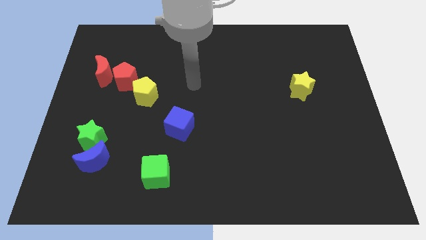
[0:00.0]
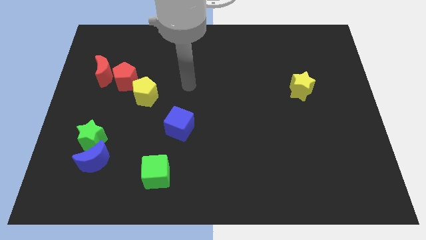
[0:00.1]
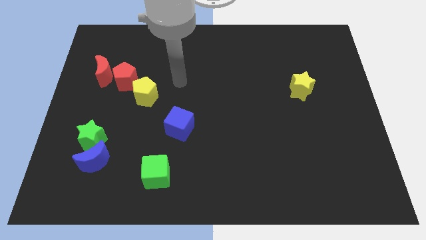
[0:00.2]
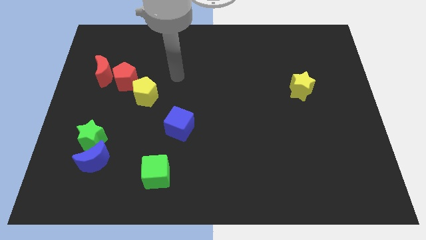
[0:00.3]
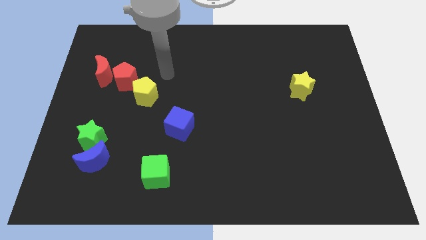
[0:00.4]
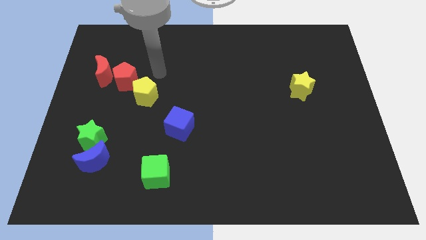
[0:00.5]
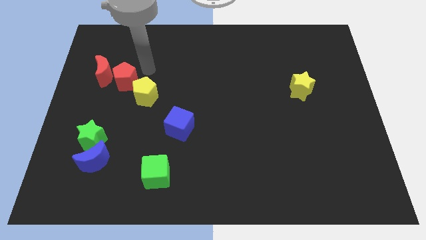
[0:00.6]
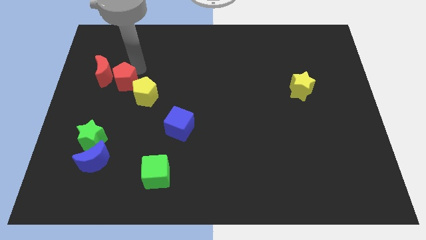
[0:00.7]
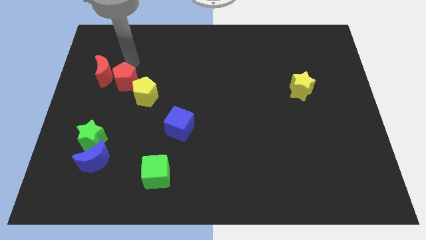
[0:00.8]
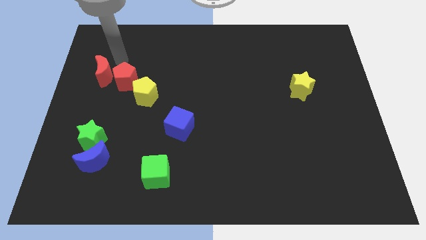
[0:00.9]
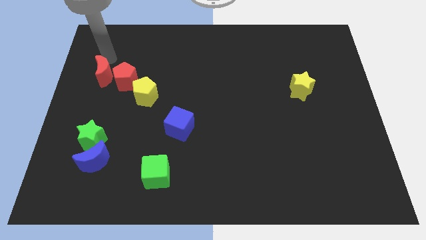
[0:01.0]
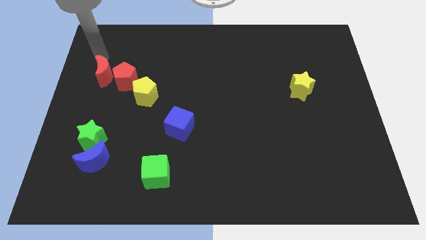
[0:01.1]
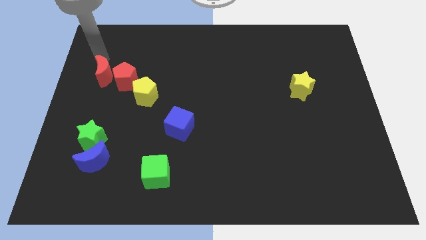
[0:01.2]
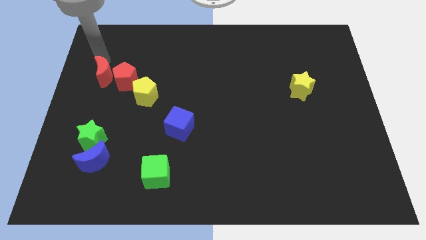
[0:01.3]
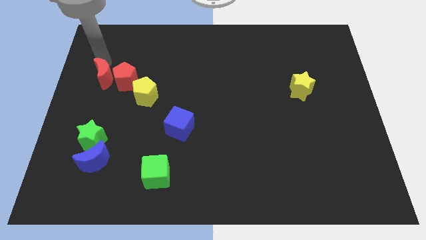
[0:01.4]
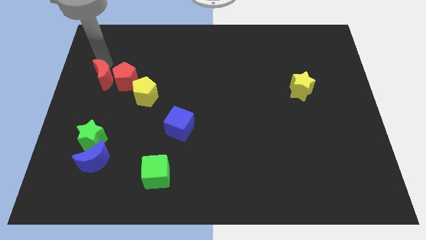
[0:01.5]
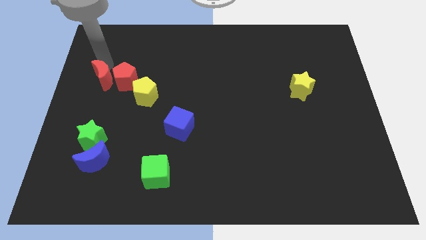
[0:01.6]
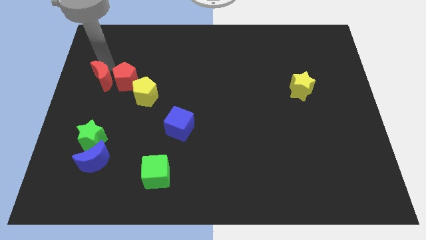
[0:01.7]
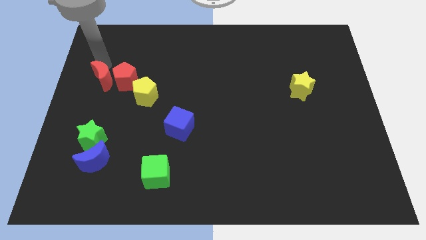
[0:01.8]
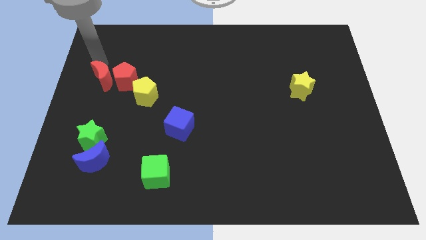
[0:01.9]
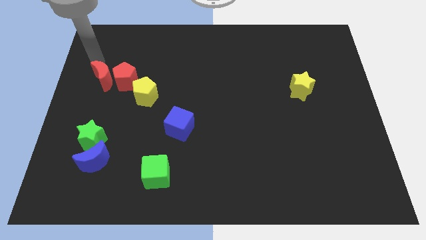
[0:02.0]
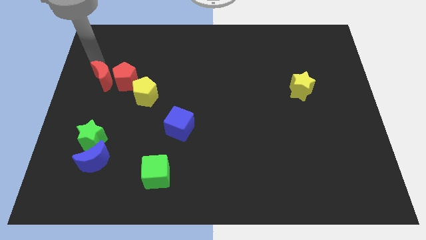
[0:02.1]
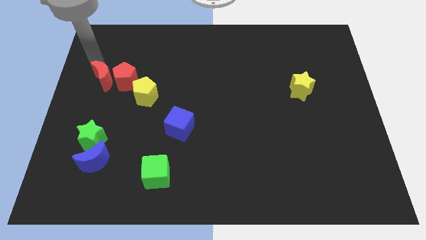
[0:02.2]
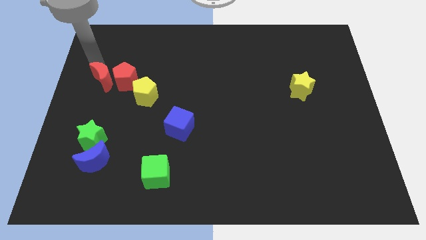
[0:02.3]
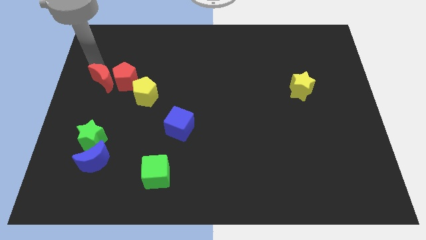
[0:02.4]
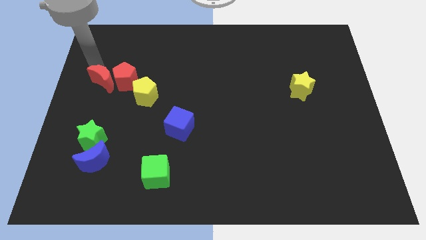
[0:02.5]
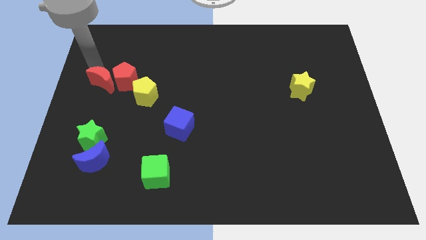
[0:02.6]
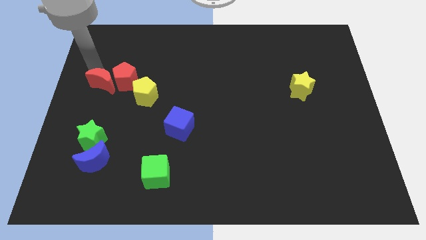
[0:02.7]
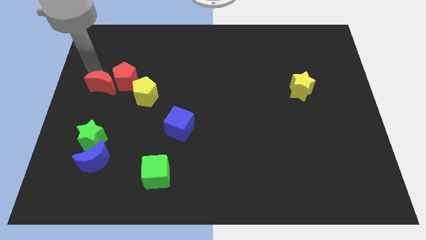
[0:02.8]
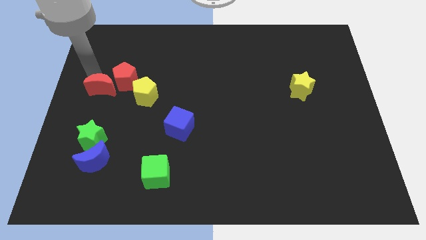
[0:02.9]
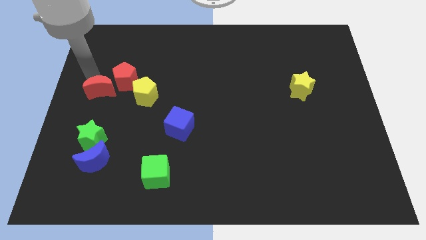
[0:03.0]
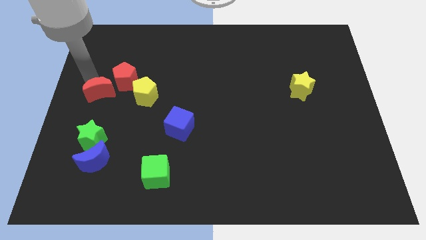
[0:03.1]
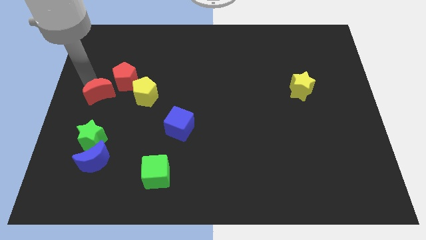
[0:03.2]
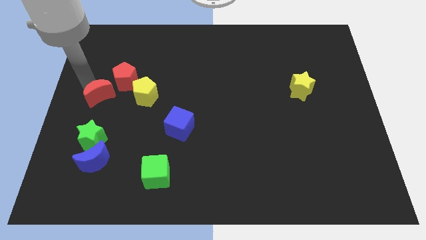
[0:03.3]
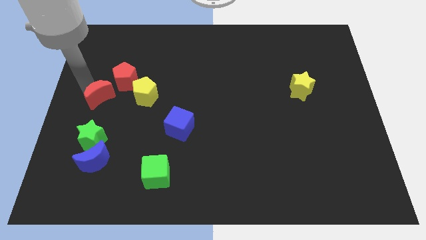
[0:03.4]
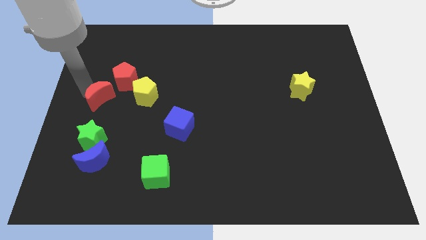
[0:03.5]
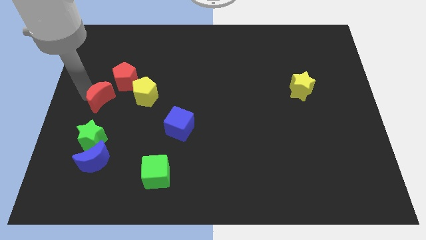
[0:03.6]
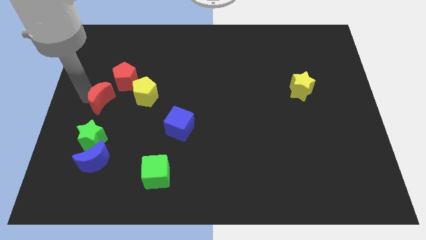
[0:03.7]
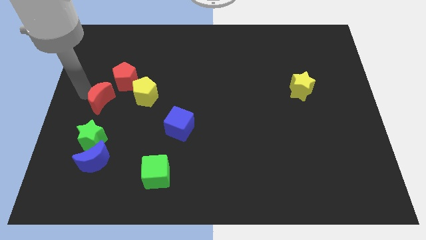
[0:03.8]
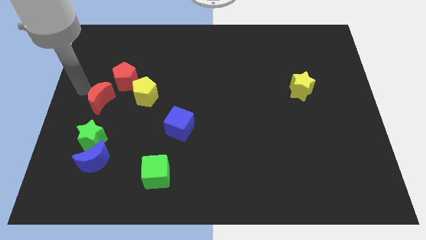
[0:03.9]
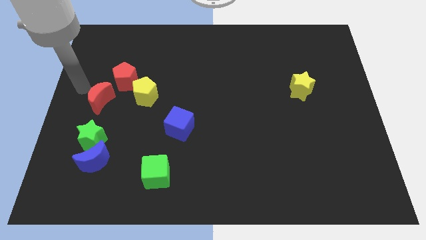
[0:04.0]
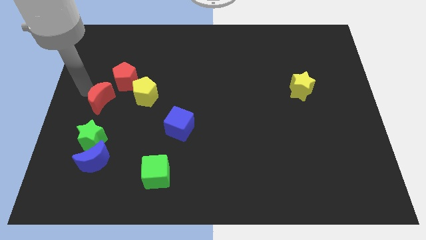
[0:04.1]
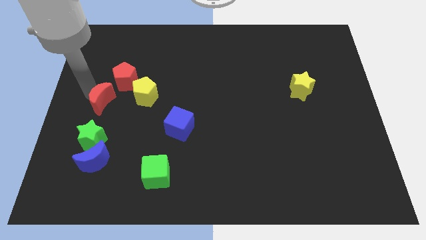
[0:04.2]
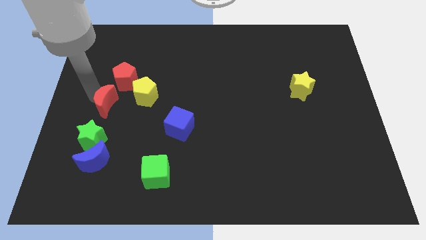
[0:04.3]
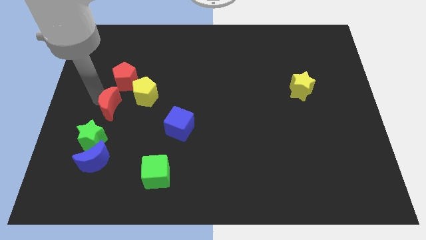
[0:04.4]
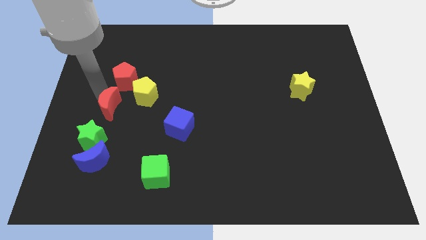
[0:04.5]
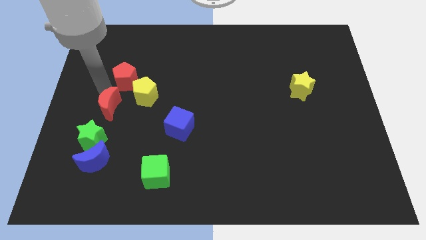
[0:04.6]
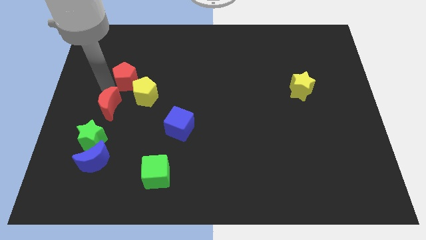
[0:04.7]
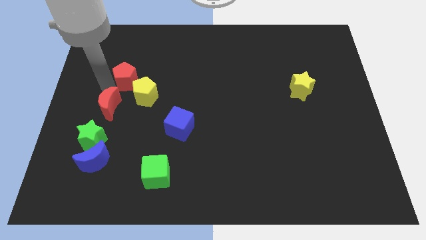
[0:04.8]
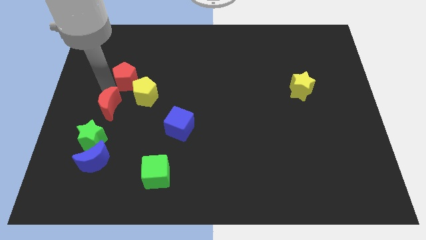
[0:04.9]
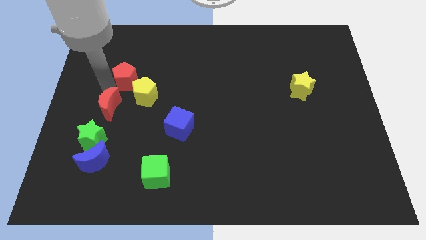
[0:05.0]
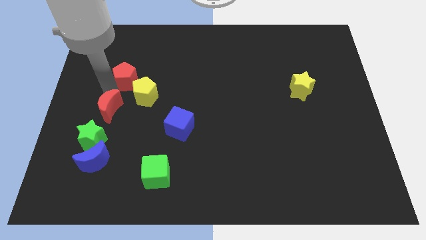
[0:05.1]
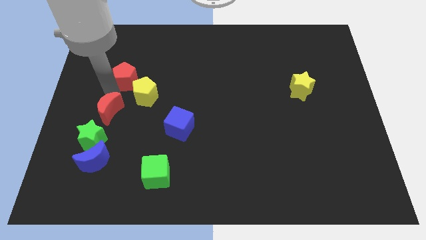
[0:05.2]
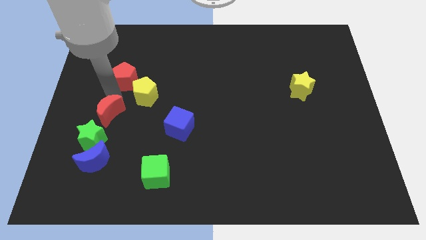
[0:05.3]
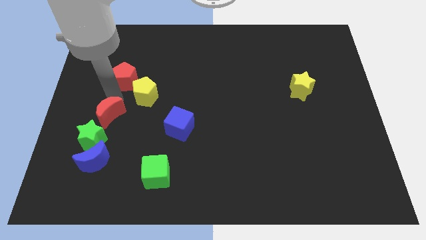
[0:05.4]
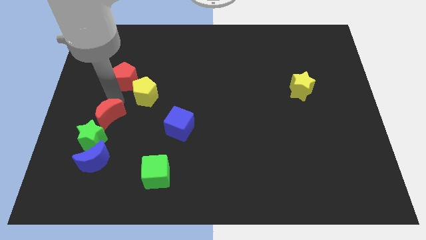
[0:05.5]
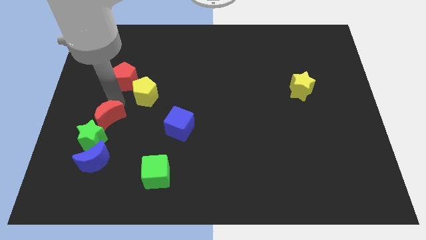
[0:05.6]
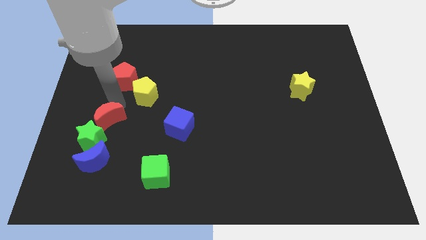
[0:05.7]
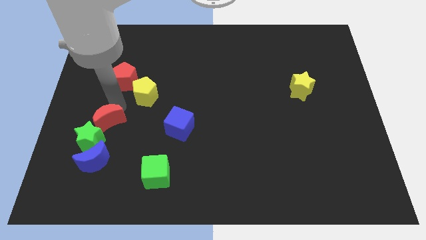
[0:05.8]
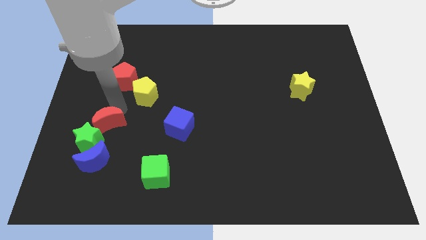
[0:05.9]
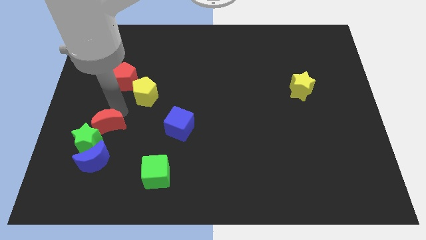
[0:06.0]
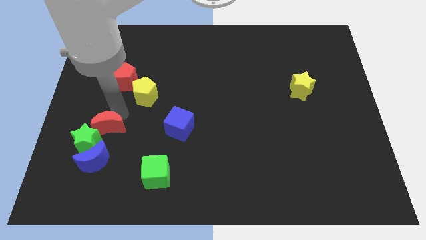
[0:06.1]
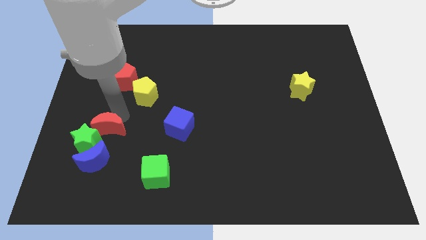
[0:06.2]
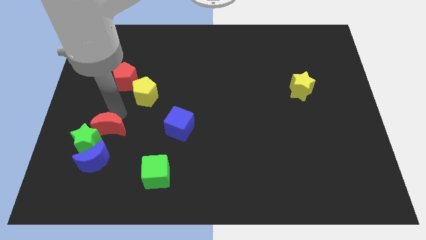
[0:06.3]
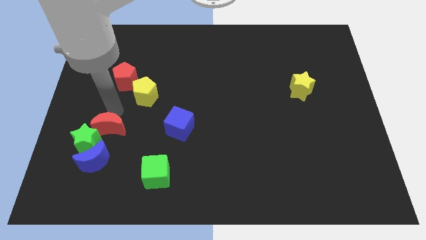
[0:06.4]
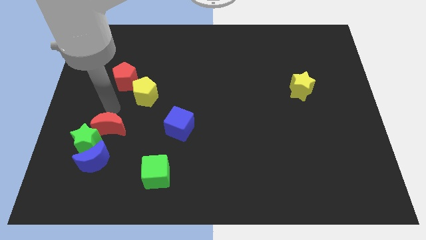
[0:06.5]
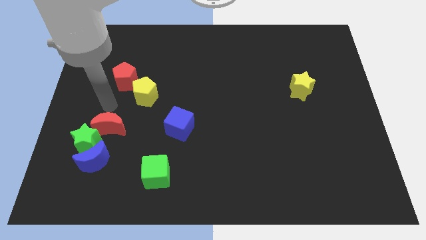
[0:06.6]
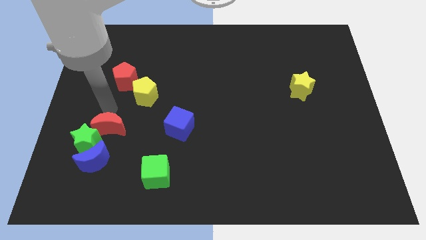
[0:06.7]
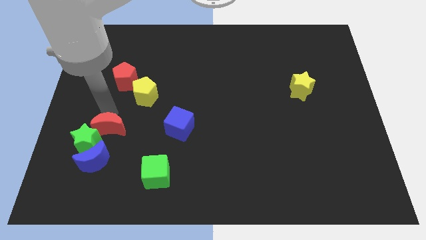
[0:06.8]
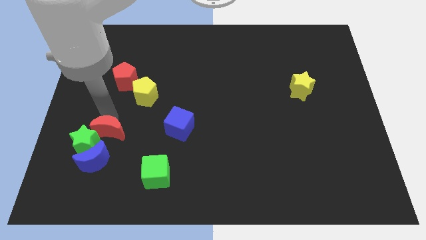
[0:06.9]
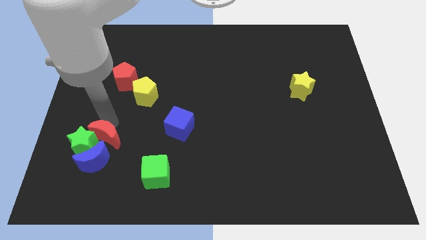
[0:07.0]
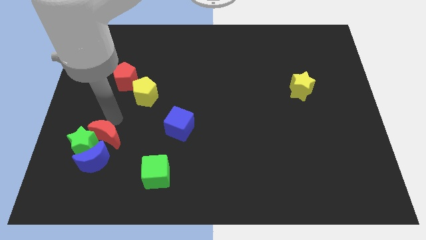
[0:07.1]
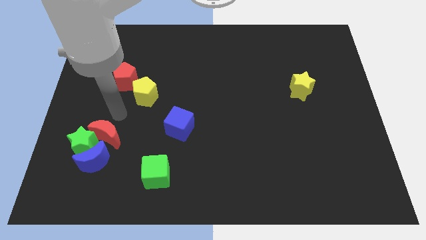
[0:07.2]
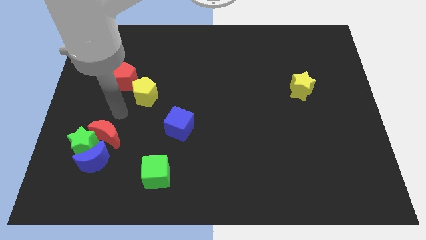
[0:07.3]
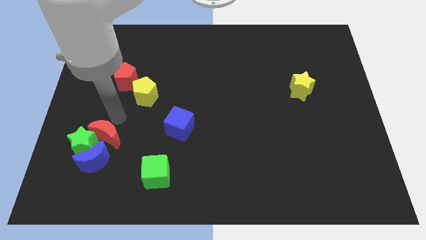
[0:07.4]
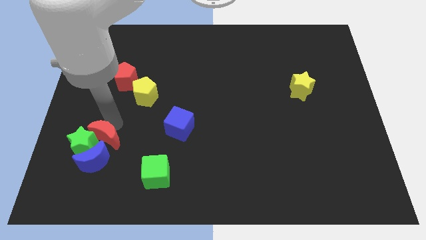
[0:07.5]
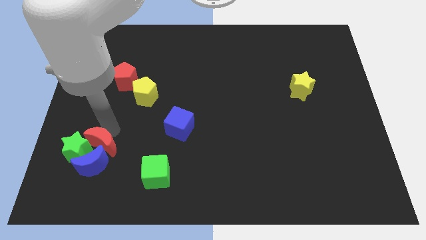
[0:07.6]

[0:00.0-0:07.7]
move the red moon to the blue moon
